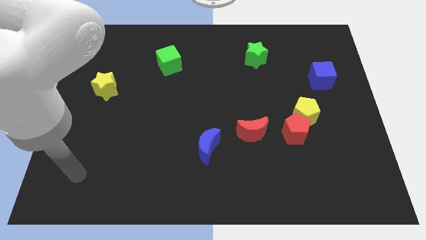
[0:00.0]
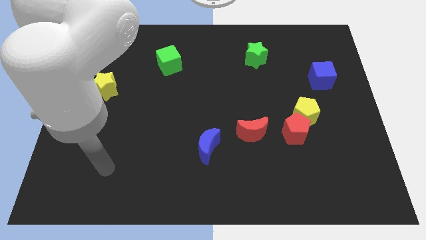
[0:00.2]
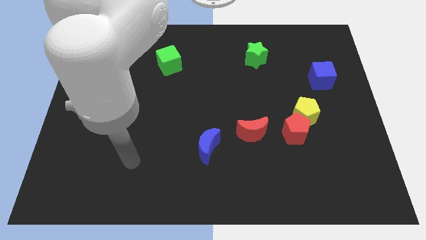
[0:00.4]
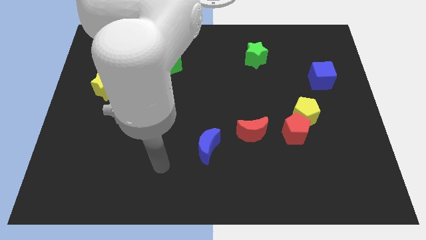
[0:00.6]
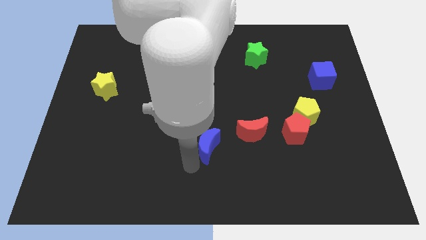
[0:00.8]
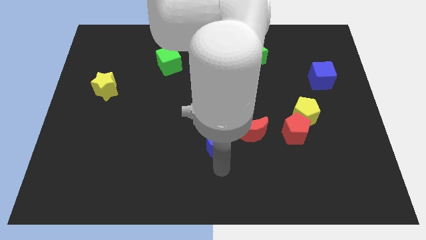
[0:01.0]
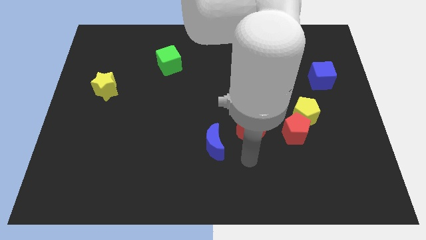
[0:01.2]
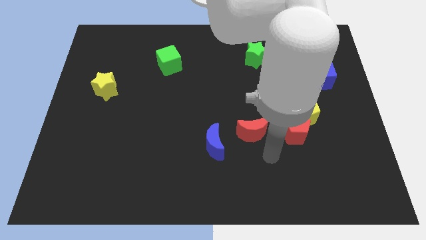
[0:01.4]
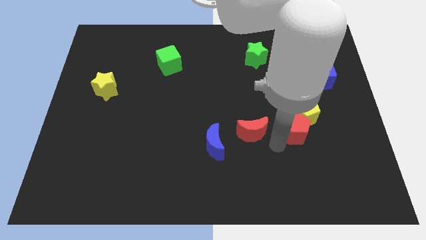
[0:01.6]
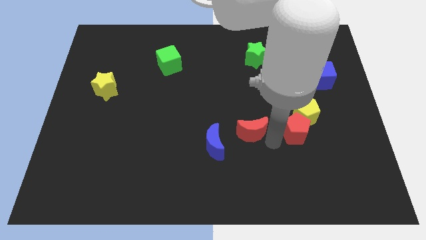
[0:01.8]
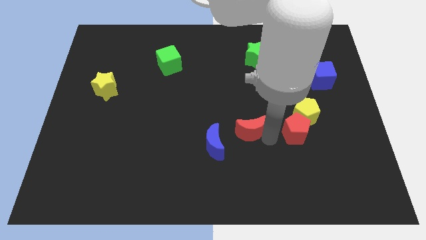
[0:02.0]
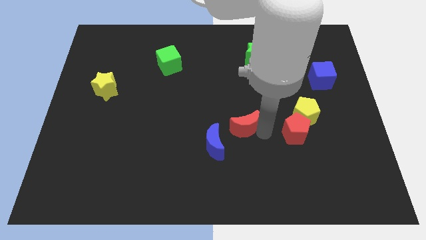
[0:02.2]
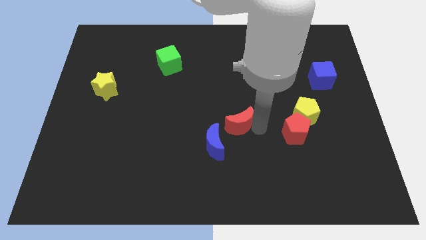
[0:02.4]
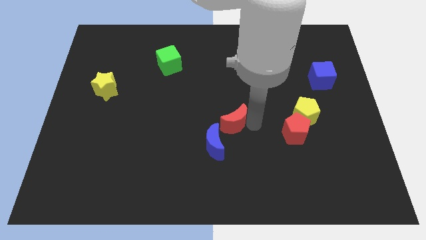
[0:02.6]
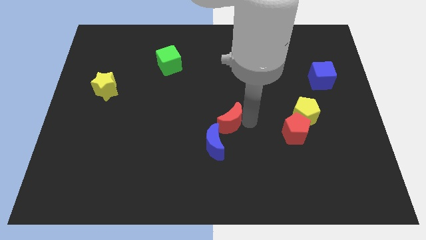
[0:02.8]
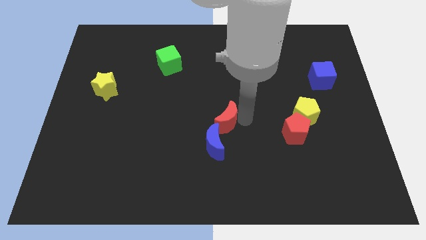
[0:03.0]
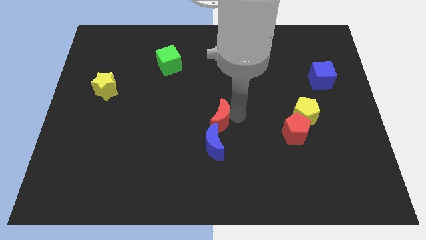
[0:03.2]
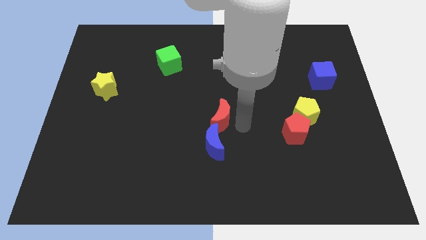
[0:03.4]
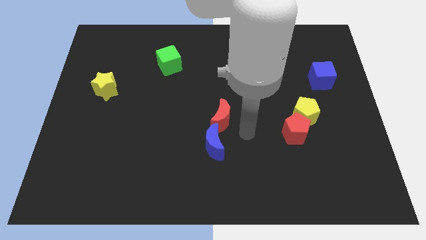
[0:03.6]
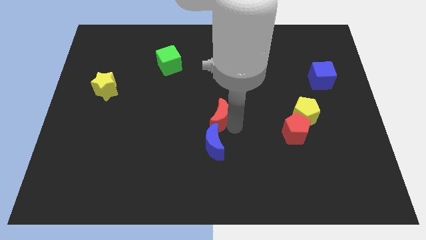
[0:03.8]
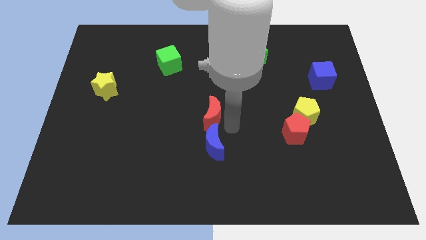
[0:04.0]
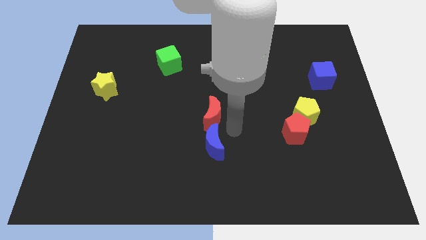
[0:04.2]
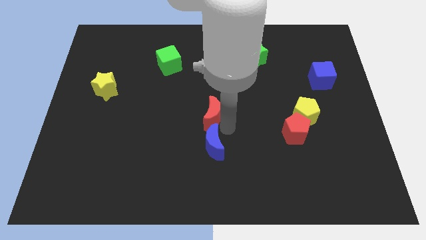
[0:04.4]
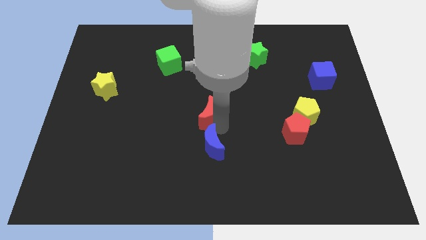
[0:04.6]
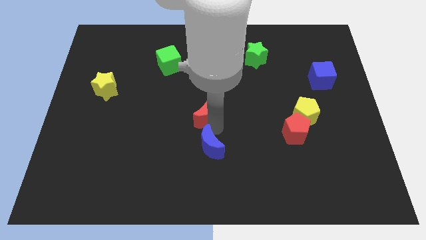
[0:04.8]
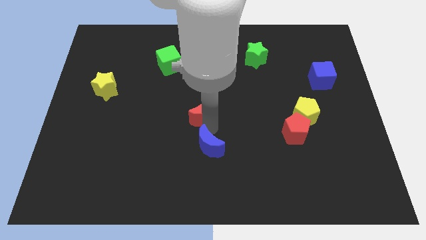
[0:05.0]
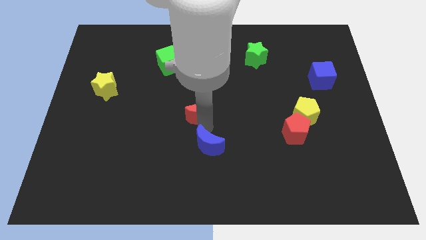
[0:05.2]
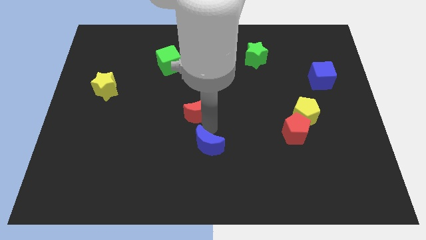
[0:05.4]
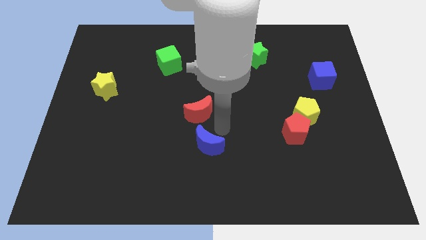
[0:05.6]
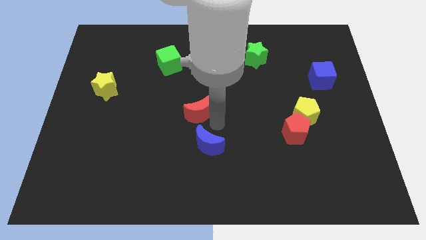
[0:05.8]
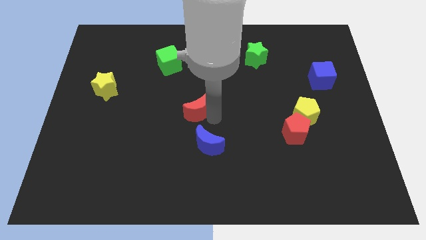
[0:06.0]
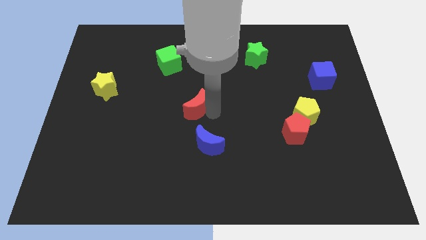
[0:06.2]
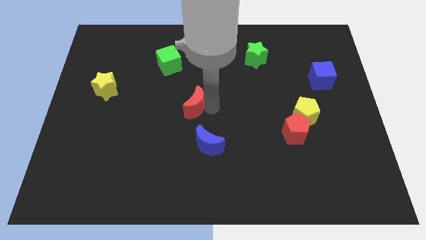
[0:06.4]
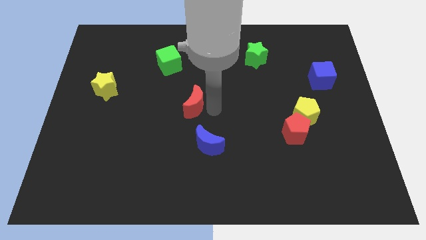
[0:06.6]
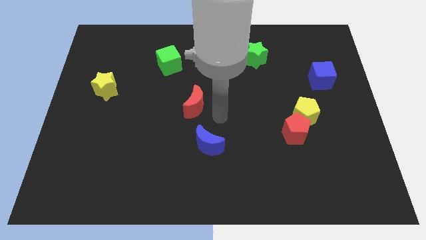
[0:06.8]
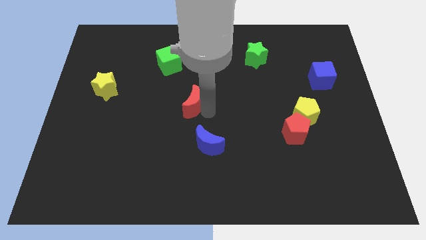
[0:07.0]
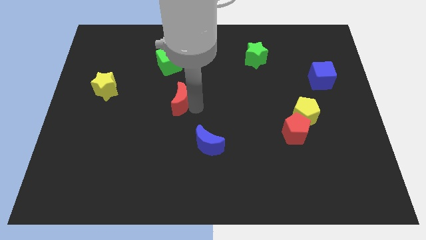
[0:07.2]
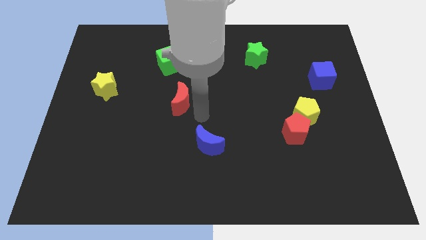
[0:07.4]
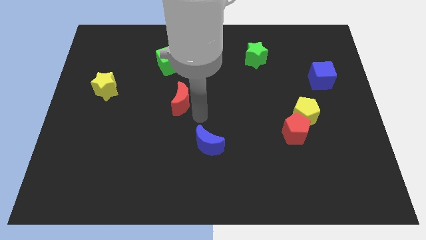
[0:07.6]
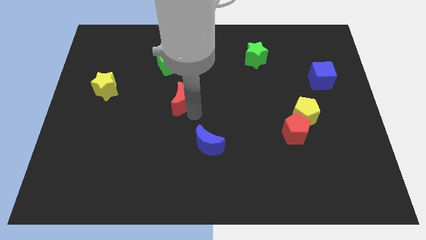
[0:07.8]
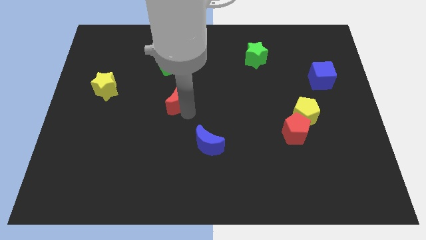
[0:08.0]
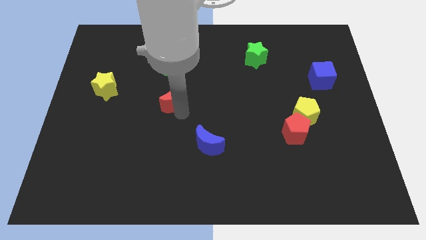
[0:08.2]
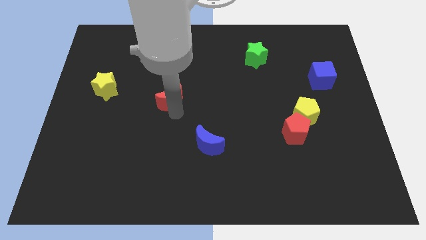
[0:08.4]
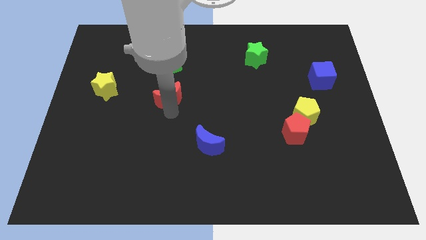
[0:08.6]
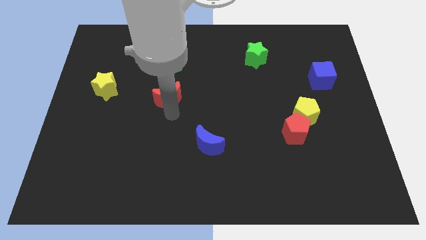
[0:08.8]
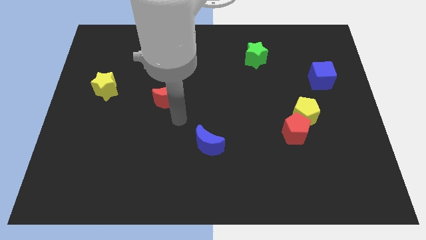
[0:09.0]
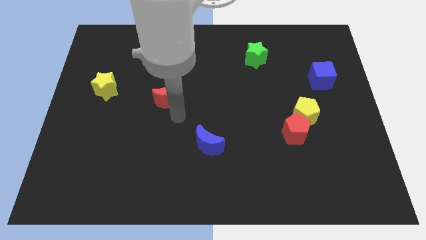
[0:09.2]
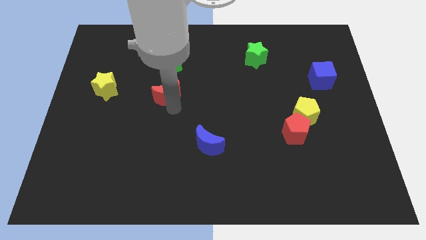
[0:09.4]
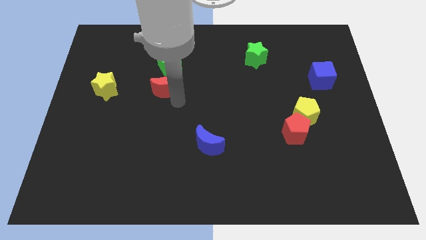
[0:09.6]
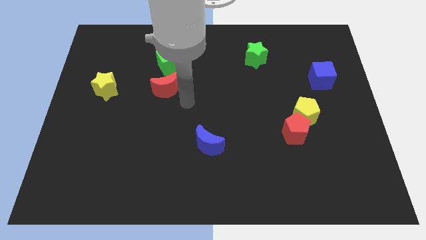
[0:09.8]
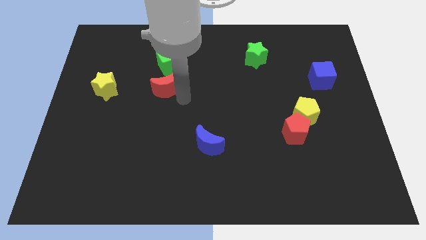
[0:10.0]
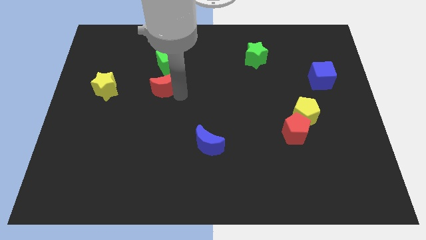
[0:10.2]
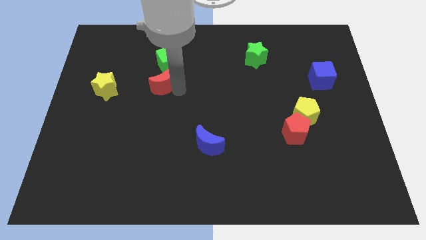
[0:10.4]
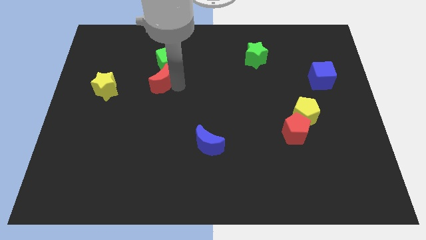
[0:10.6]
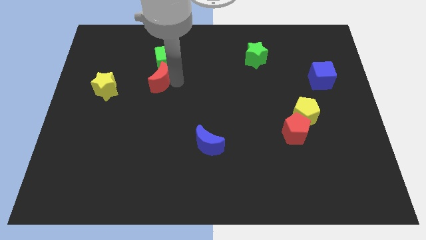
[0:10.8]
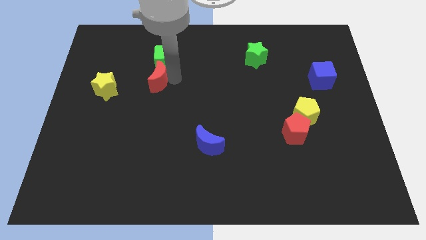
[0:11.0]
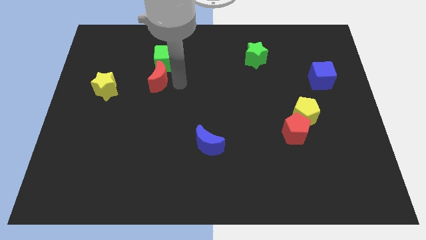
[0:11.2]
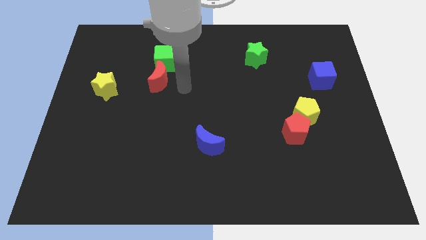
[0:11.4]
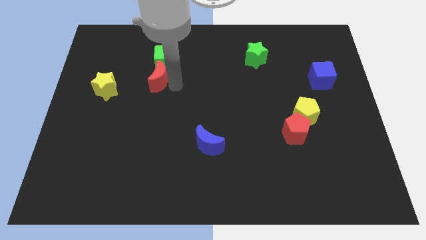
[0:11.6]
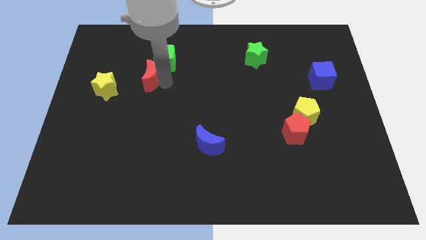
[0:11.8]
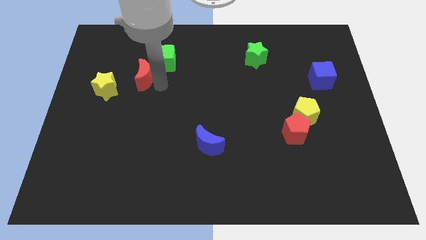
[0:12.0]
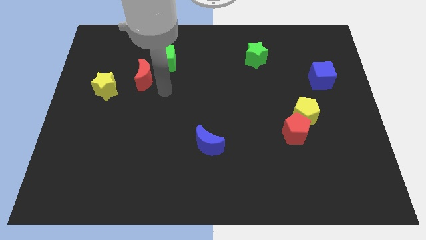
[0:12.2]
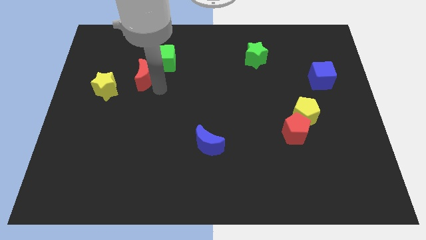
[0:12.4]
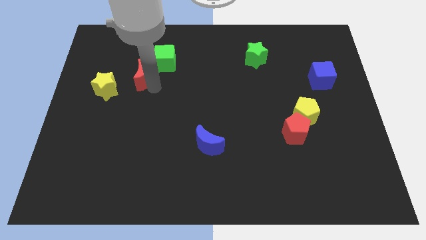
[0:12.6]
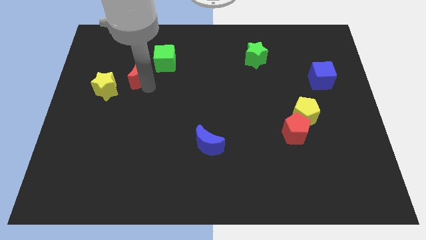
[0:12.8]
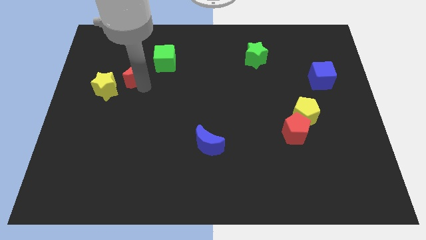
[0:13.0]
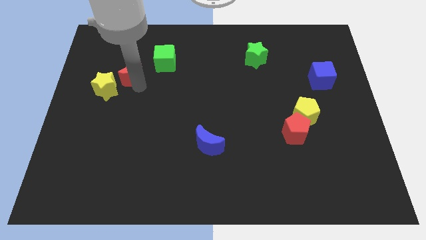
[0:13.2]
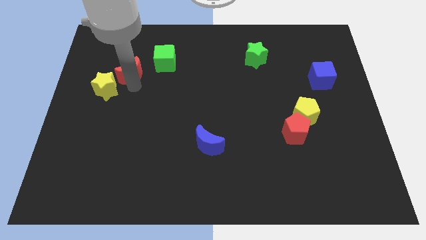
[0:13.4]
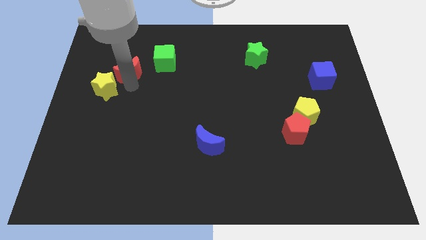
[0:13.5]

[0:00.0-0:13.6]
push the red moon to the top of the yellow star
